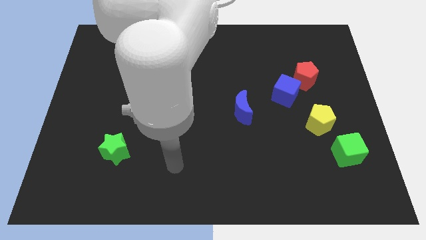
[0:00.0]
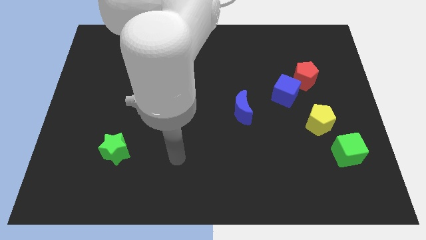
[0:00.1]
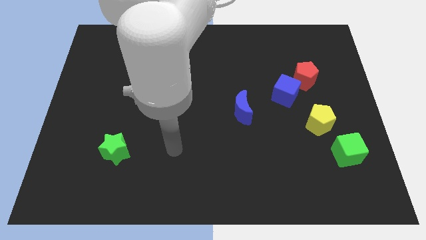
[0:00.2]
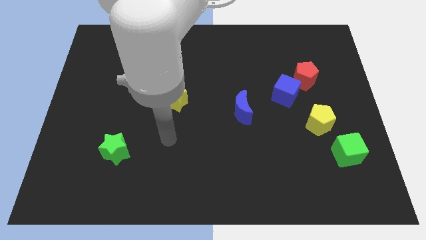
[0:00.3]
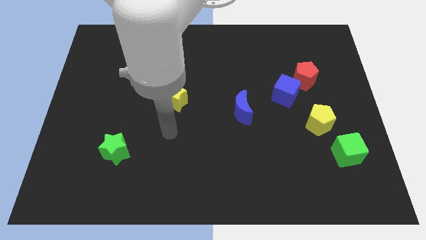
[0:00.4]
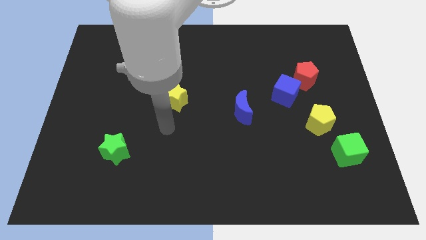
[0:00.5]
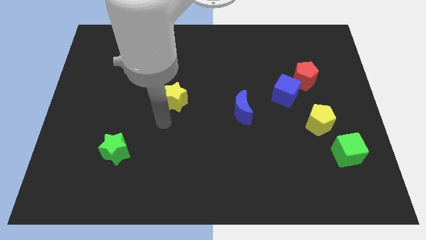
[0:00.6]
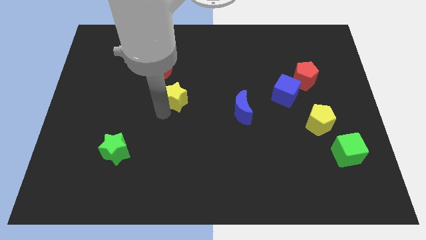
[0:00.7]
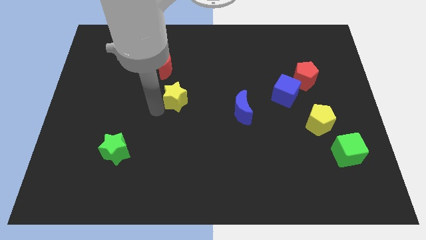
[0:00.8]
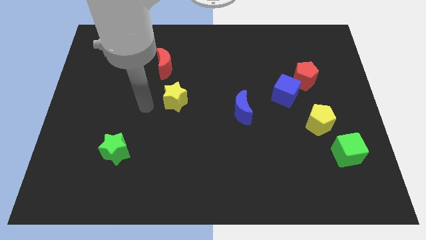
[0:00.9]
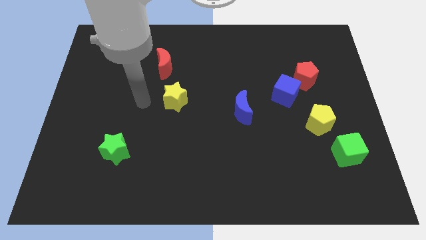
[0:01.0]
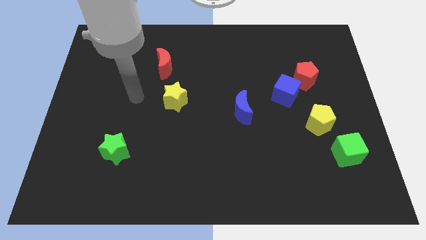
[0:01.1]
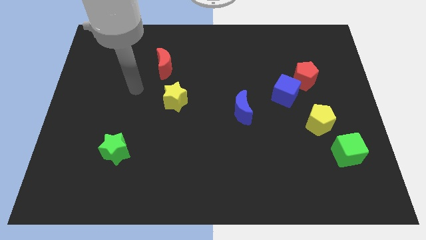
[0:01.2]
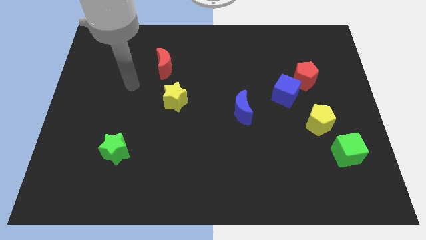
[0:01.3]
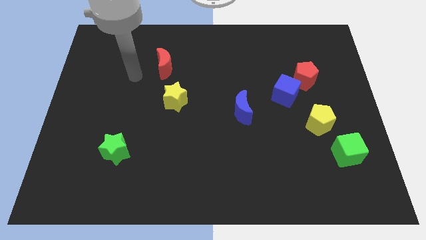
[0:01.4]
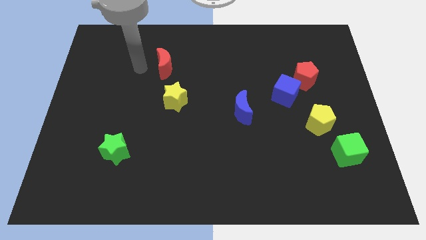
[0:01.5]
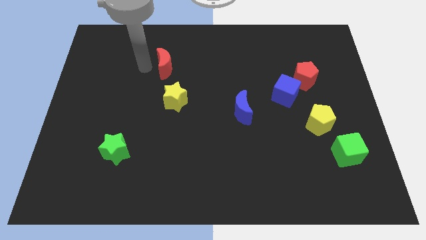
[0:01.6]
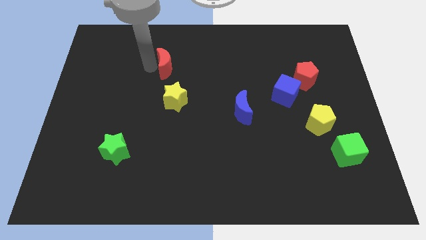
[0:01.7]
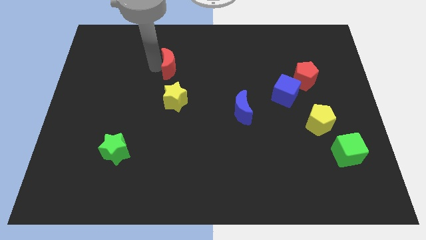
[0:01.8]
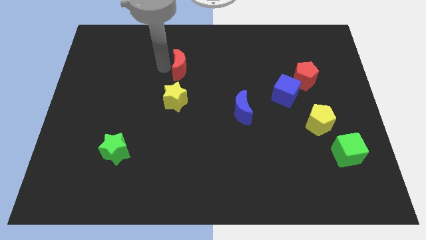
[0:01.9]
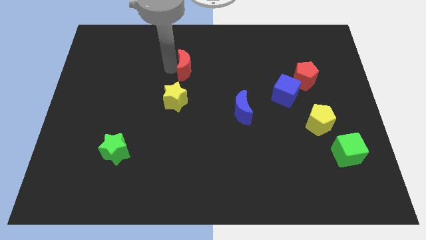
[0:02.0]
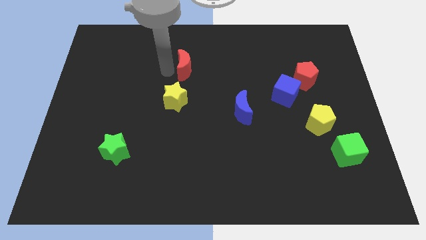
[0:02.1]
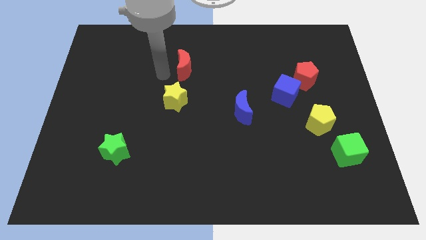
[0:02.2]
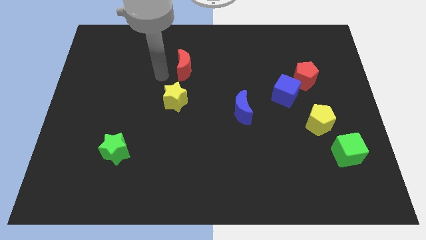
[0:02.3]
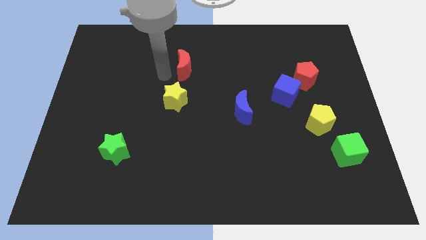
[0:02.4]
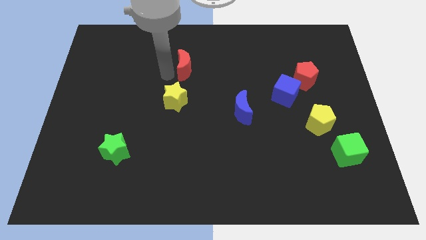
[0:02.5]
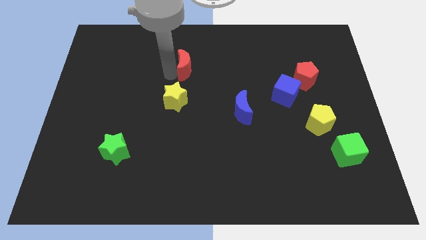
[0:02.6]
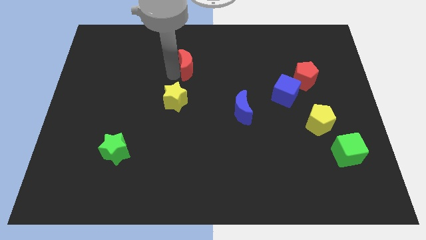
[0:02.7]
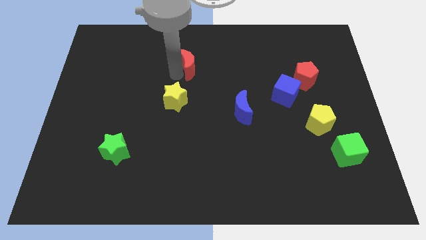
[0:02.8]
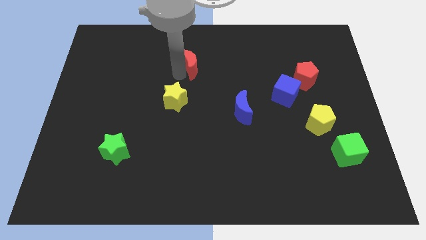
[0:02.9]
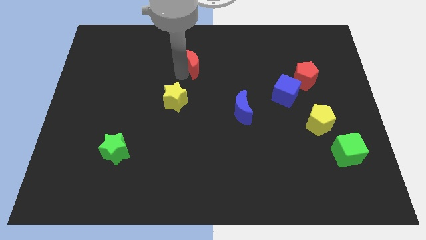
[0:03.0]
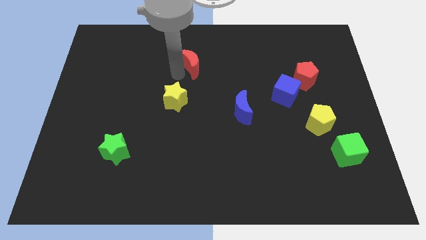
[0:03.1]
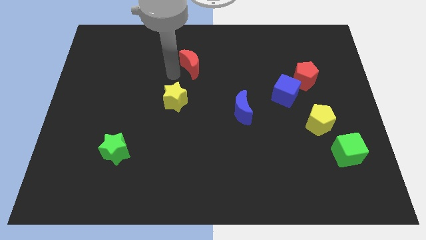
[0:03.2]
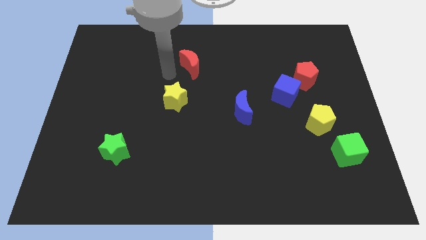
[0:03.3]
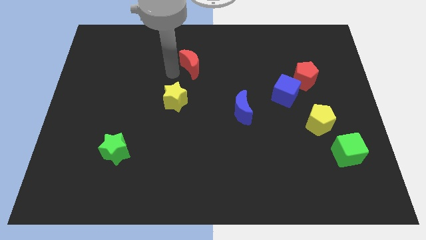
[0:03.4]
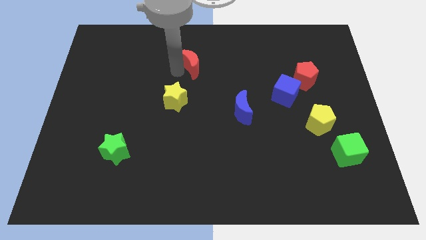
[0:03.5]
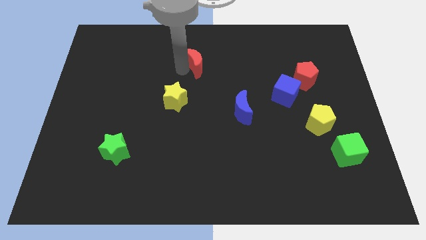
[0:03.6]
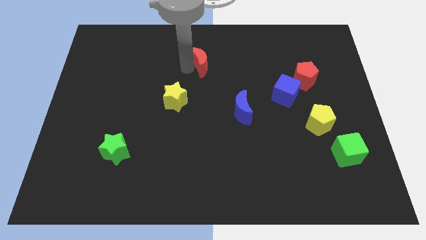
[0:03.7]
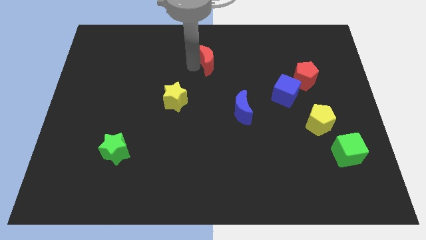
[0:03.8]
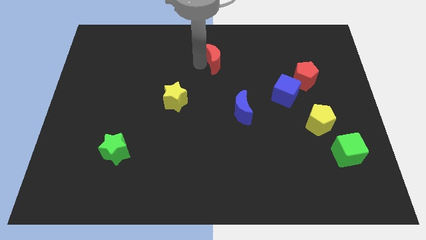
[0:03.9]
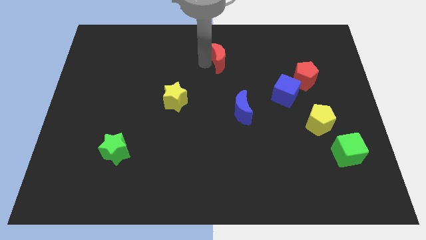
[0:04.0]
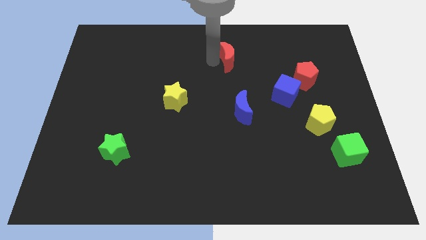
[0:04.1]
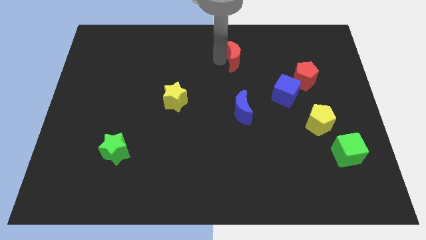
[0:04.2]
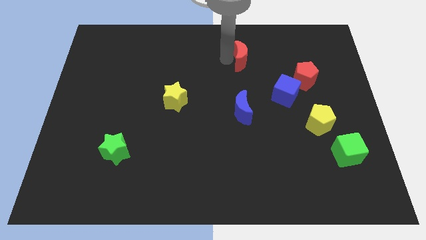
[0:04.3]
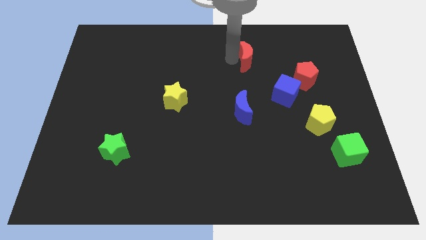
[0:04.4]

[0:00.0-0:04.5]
push the red moon right

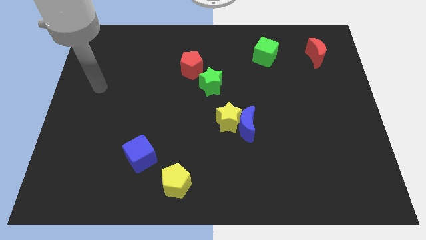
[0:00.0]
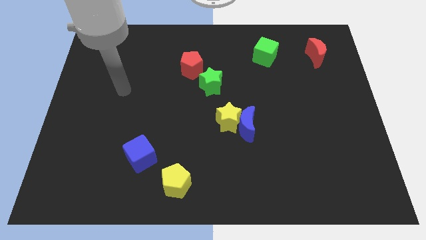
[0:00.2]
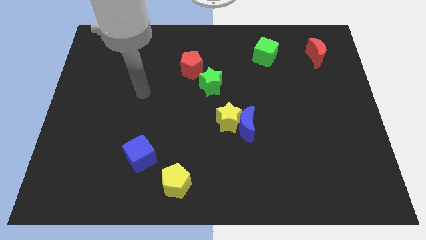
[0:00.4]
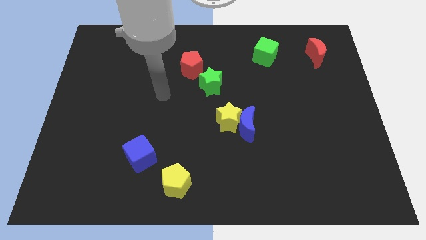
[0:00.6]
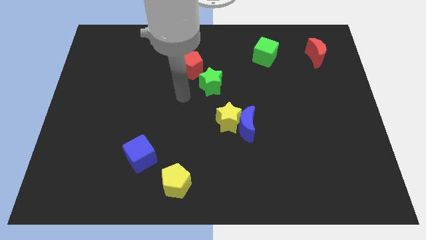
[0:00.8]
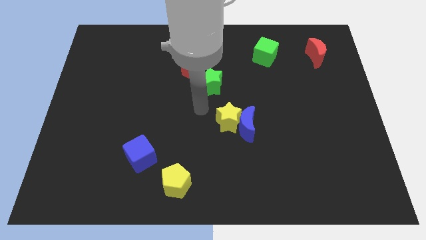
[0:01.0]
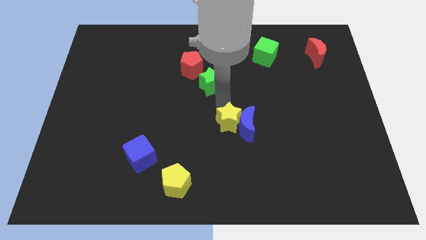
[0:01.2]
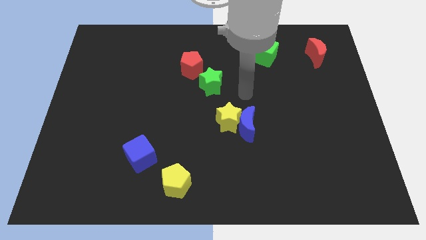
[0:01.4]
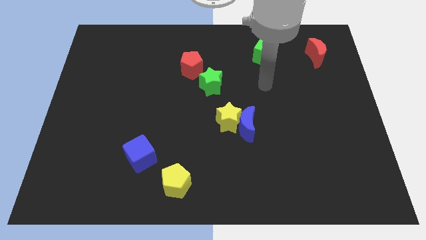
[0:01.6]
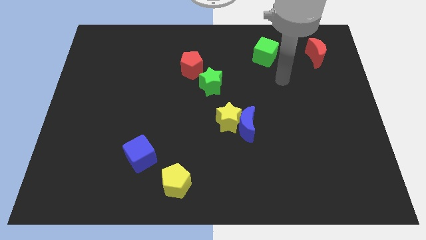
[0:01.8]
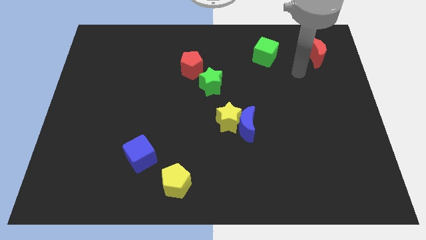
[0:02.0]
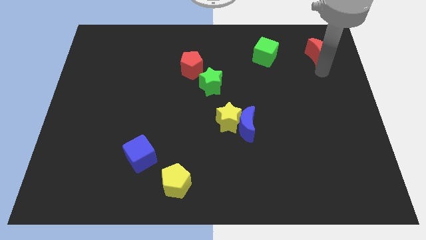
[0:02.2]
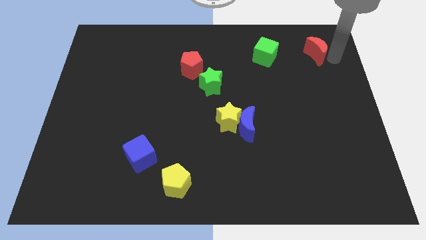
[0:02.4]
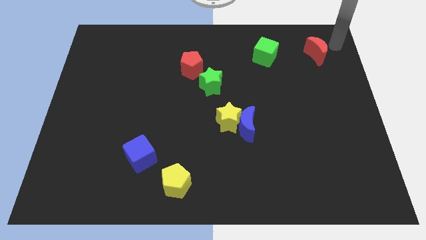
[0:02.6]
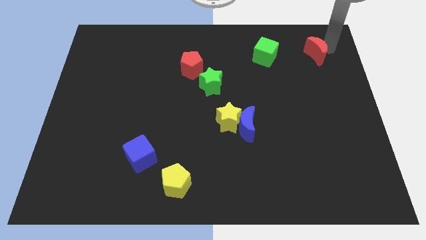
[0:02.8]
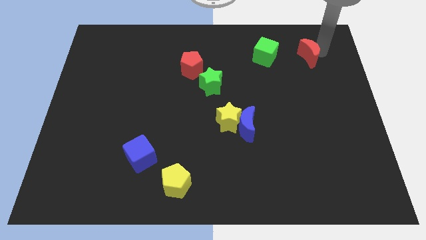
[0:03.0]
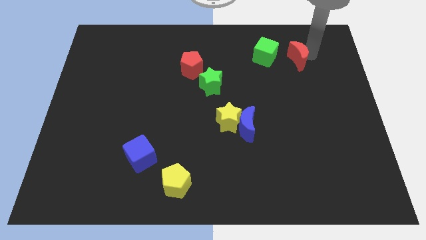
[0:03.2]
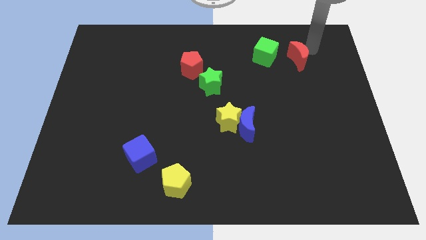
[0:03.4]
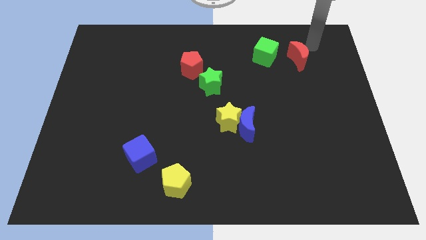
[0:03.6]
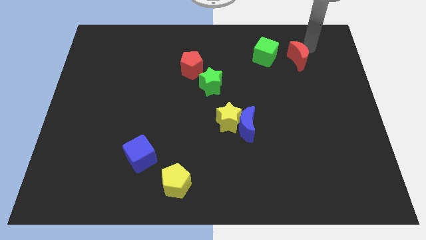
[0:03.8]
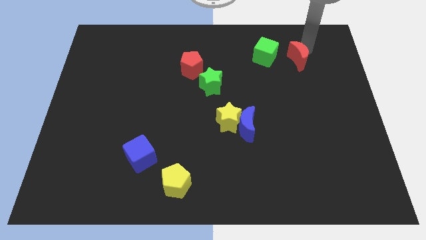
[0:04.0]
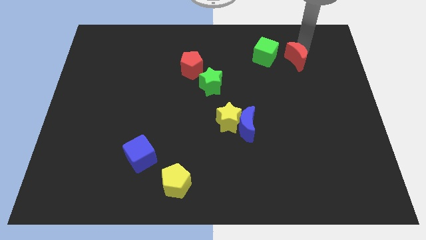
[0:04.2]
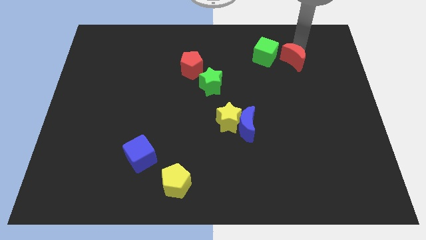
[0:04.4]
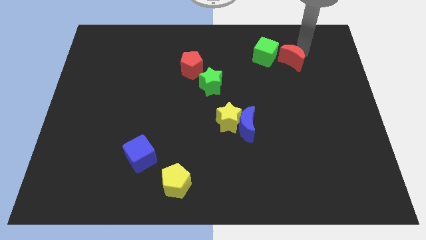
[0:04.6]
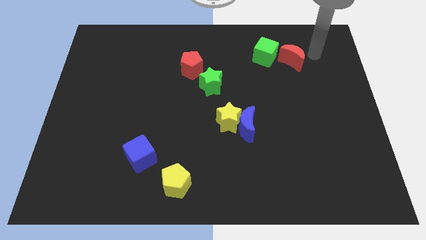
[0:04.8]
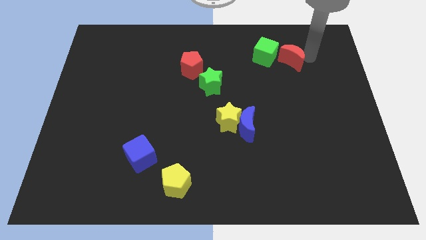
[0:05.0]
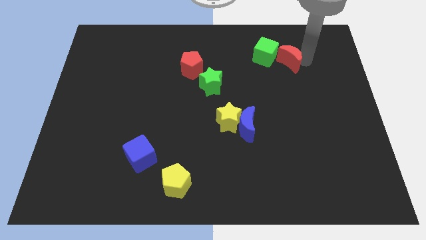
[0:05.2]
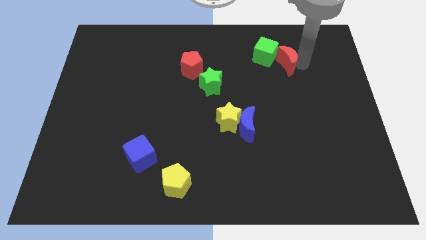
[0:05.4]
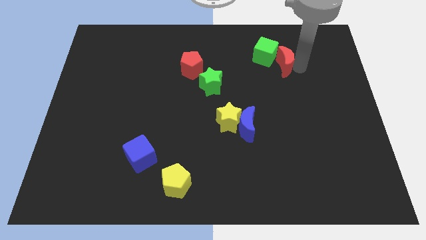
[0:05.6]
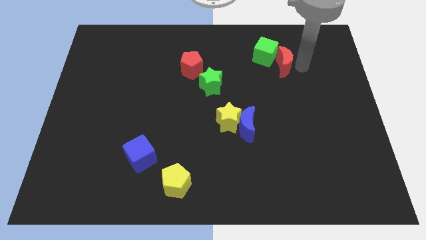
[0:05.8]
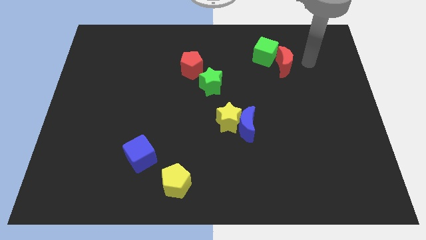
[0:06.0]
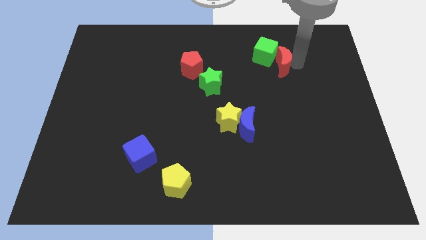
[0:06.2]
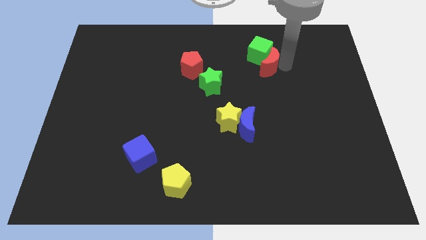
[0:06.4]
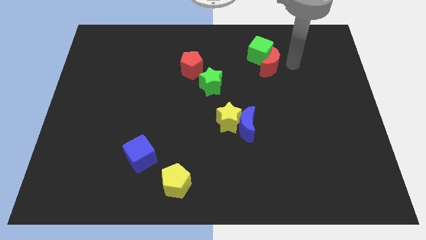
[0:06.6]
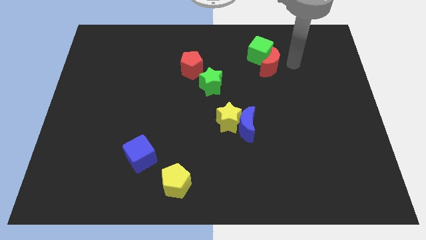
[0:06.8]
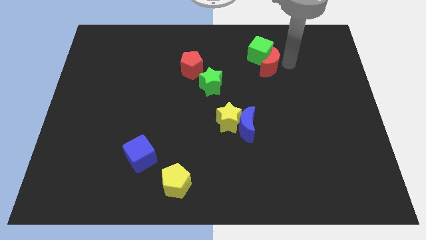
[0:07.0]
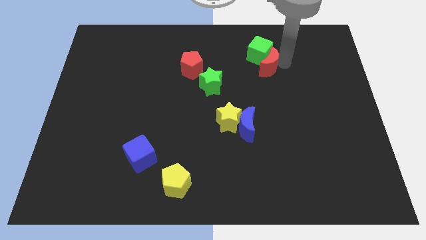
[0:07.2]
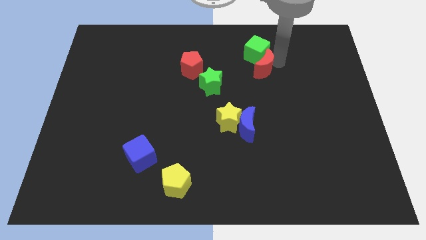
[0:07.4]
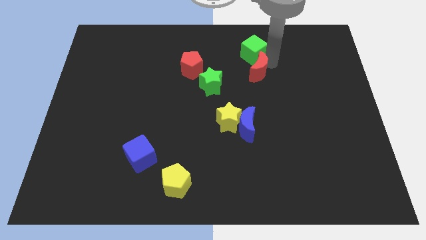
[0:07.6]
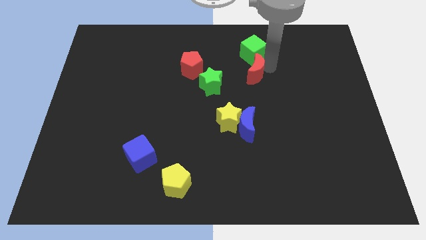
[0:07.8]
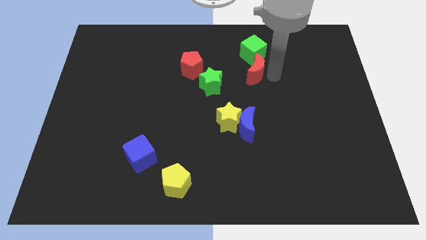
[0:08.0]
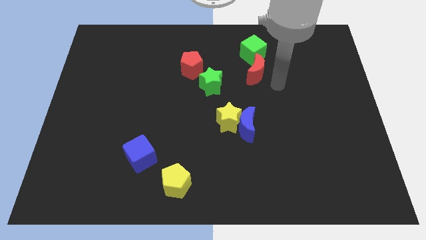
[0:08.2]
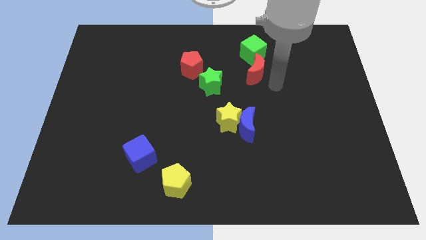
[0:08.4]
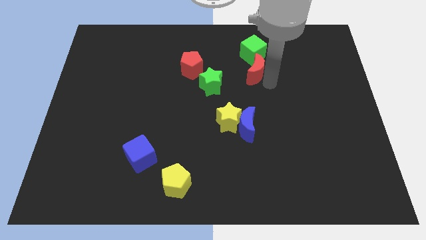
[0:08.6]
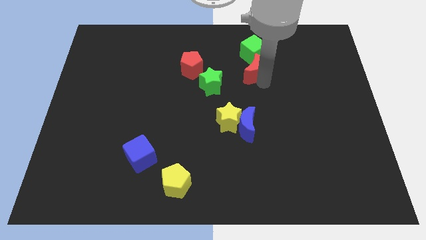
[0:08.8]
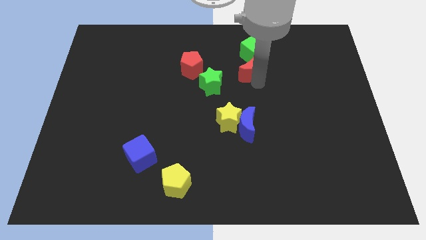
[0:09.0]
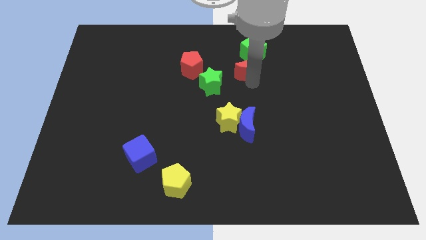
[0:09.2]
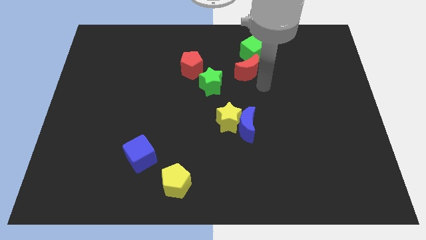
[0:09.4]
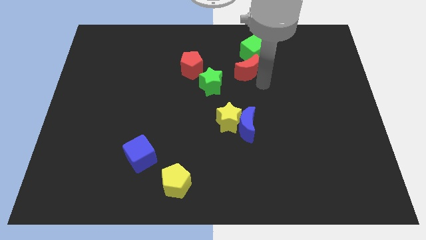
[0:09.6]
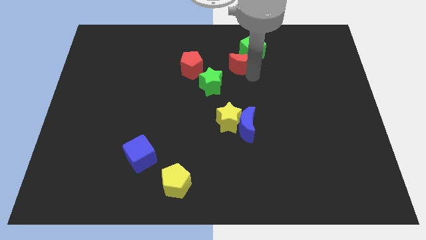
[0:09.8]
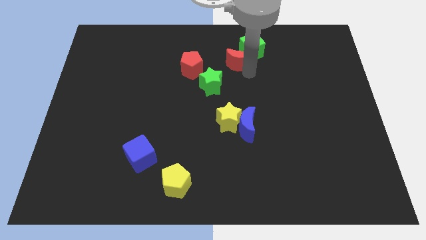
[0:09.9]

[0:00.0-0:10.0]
move the red moon to the left
